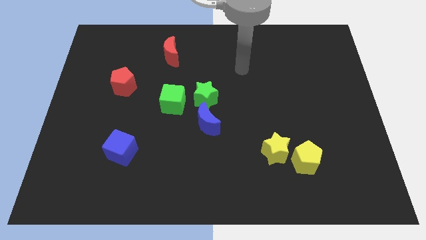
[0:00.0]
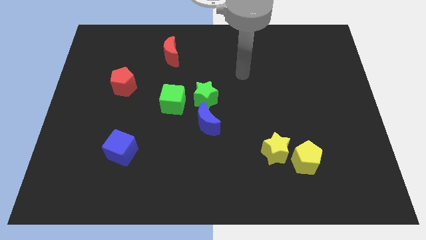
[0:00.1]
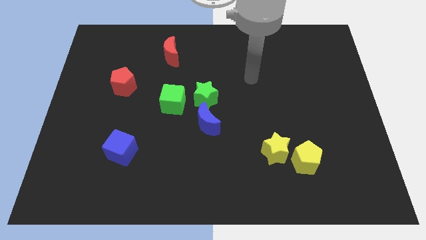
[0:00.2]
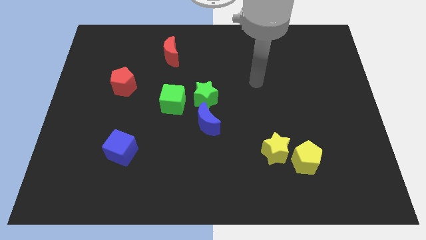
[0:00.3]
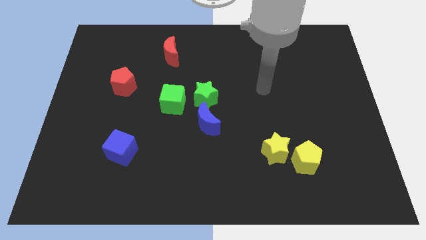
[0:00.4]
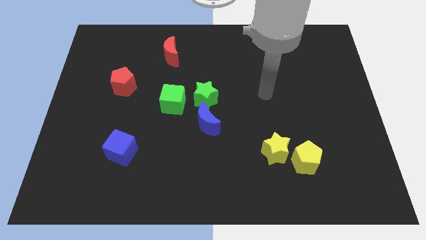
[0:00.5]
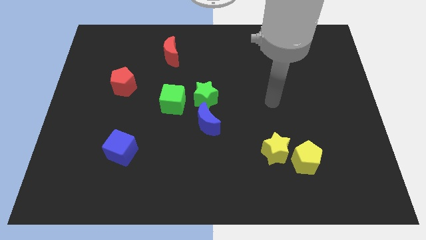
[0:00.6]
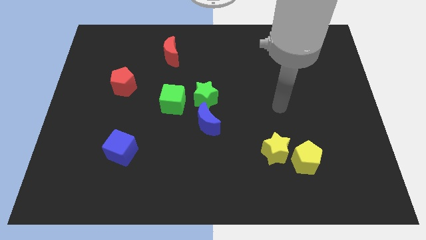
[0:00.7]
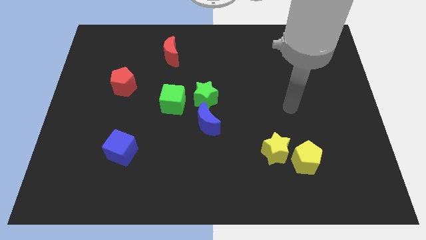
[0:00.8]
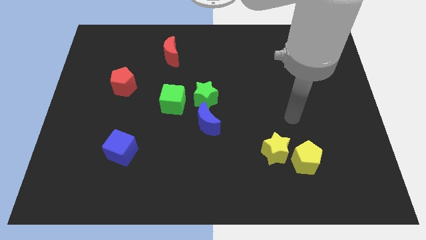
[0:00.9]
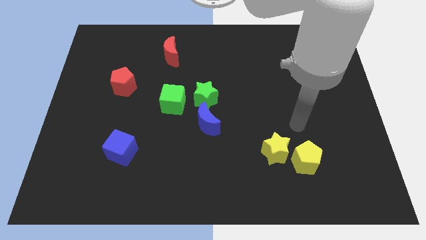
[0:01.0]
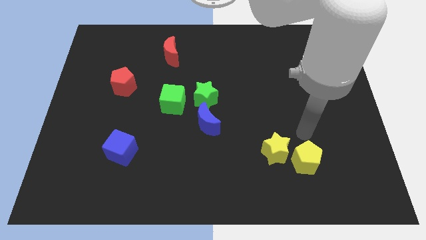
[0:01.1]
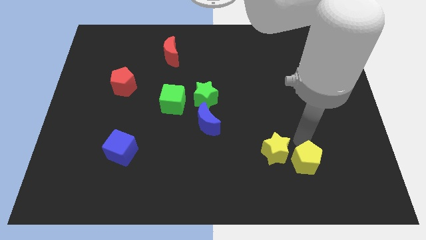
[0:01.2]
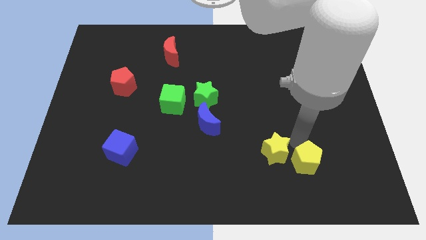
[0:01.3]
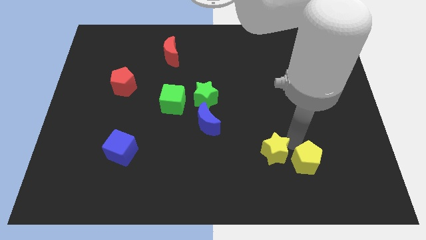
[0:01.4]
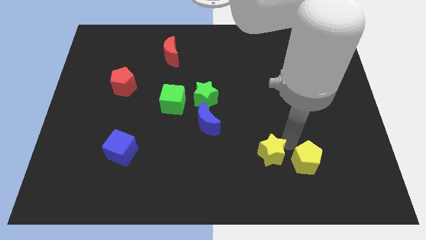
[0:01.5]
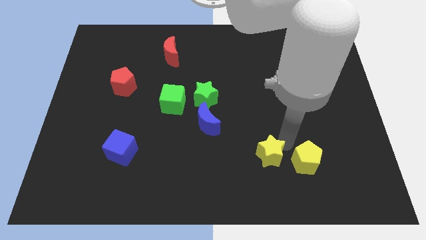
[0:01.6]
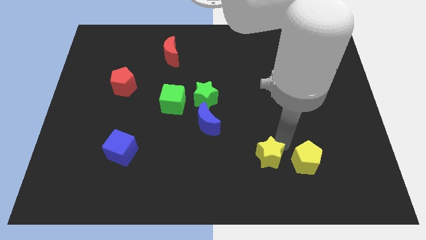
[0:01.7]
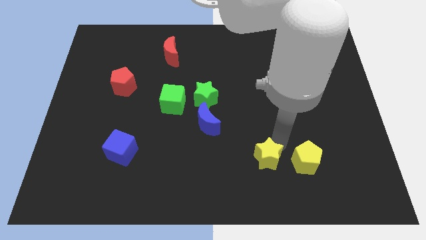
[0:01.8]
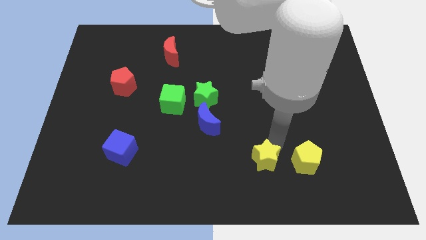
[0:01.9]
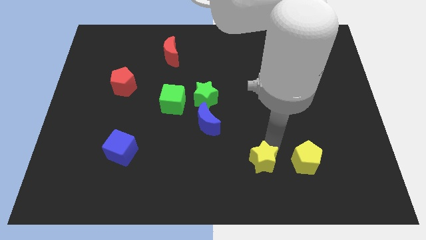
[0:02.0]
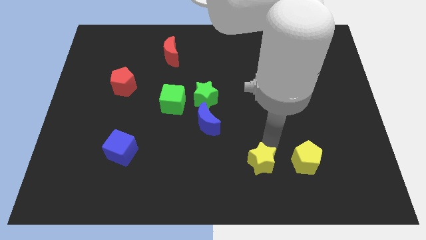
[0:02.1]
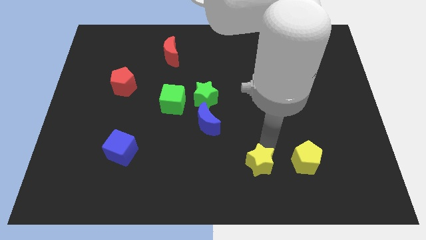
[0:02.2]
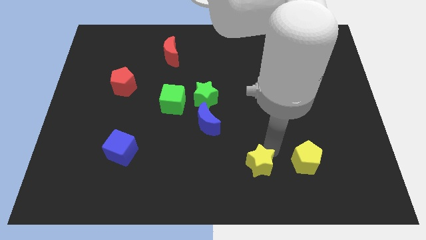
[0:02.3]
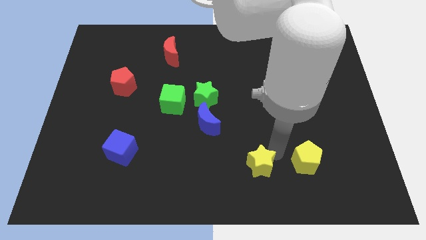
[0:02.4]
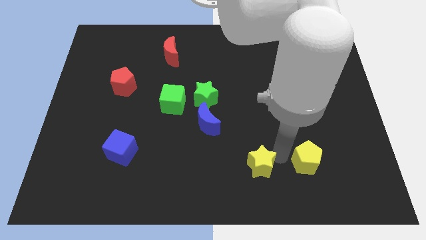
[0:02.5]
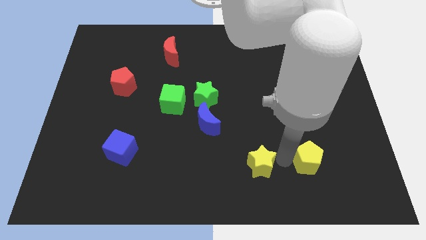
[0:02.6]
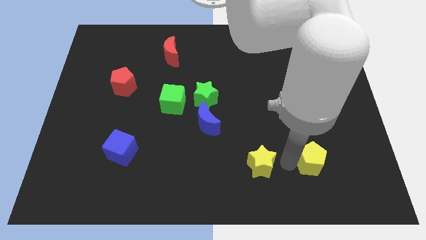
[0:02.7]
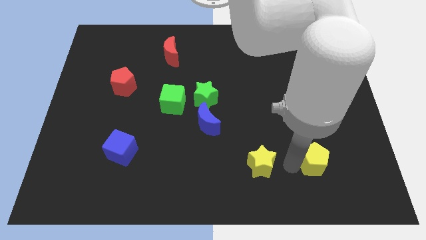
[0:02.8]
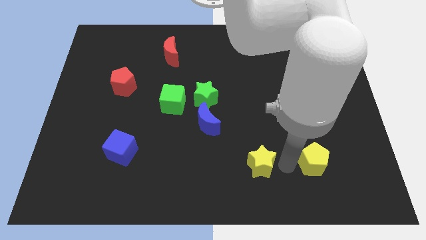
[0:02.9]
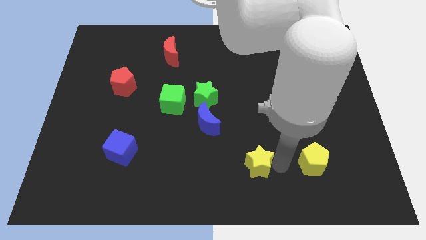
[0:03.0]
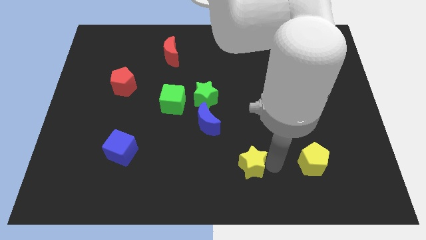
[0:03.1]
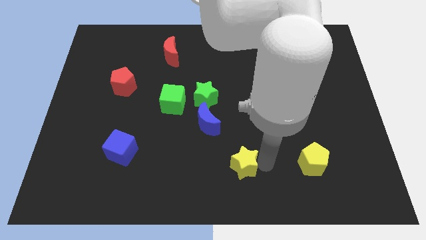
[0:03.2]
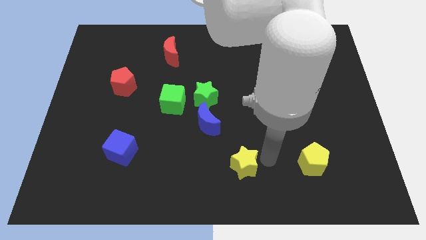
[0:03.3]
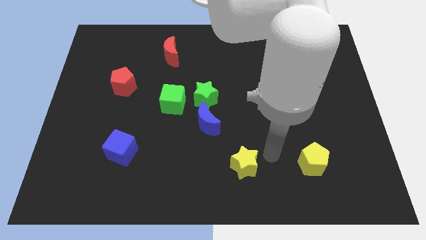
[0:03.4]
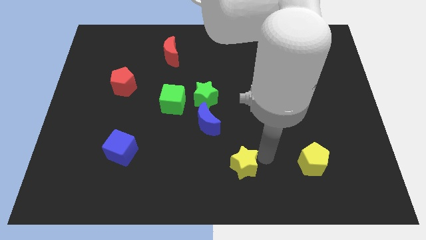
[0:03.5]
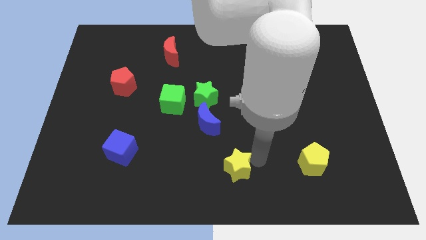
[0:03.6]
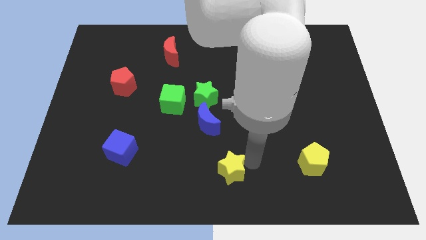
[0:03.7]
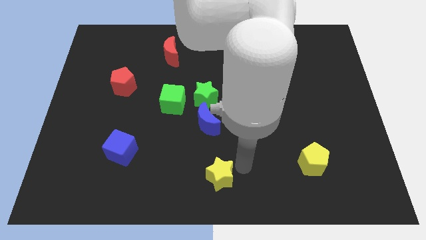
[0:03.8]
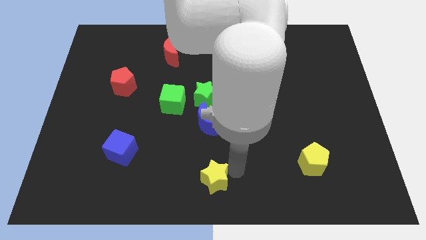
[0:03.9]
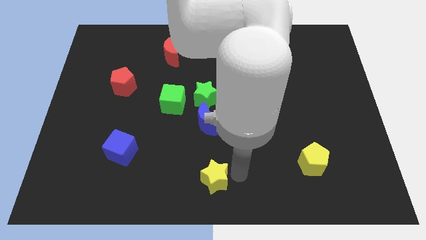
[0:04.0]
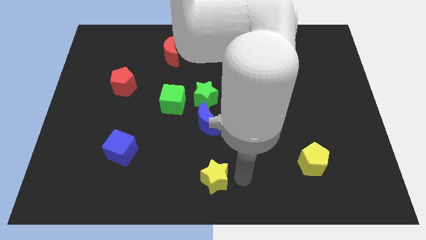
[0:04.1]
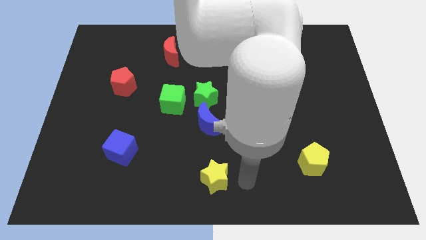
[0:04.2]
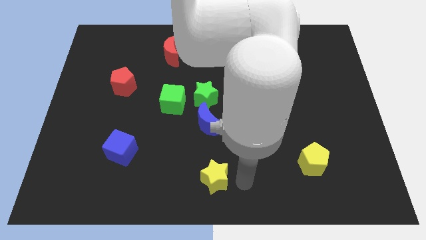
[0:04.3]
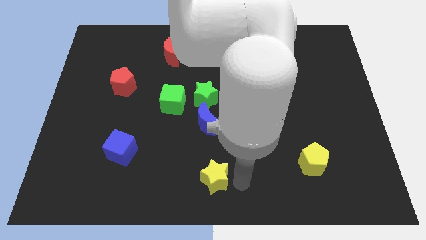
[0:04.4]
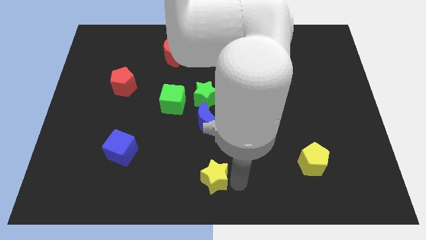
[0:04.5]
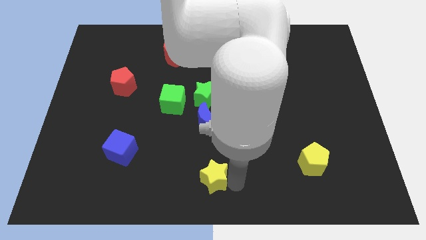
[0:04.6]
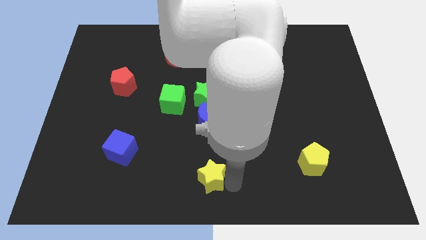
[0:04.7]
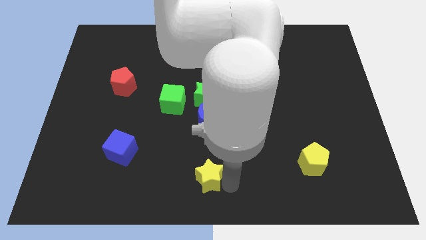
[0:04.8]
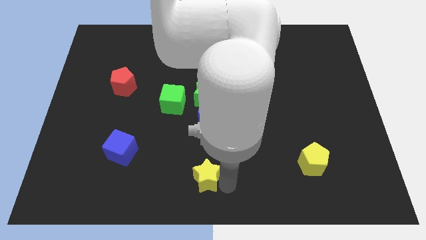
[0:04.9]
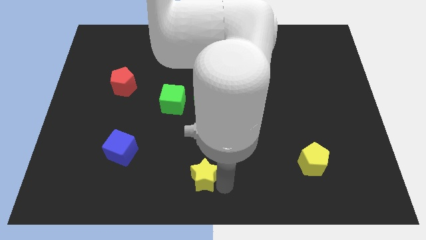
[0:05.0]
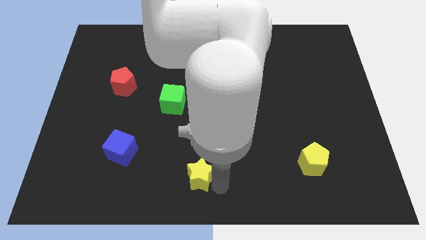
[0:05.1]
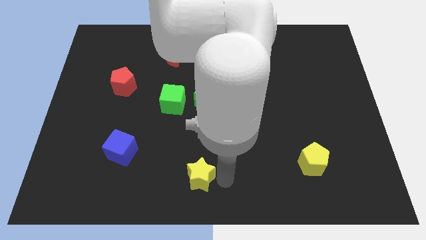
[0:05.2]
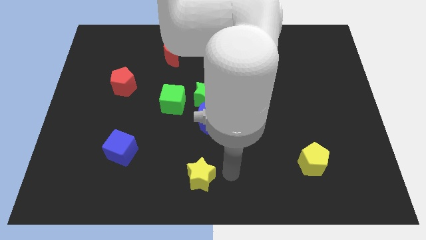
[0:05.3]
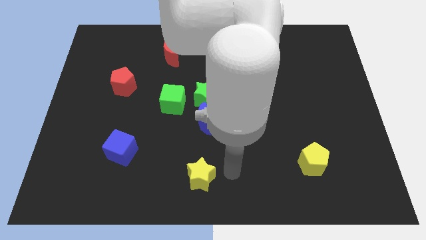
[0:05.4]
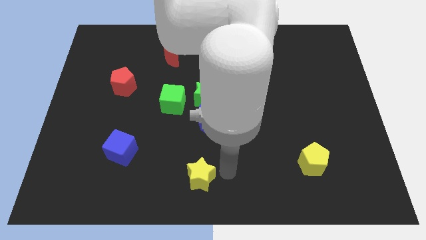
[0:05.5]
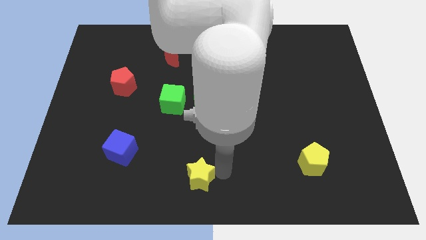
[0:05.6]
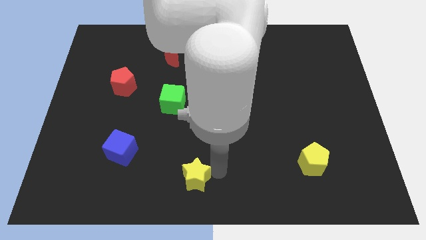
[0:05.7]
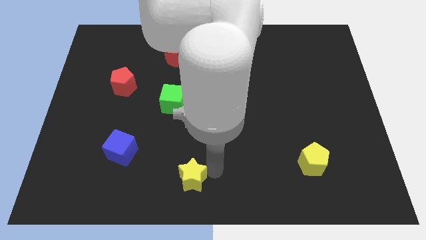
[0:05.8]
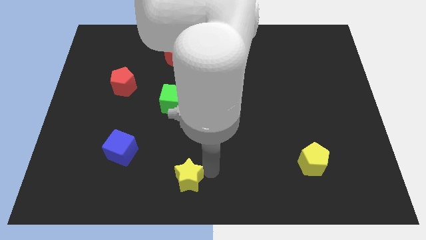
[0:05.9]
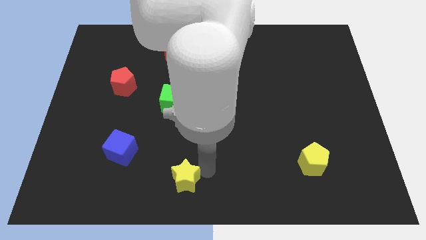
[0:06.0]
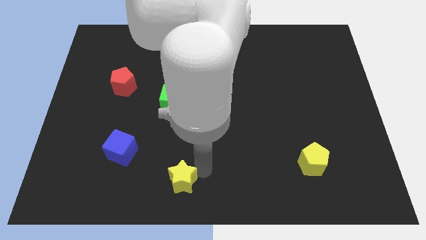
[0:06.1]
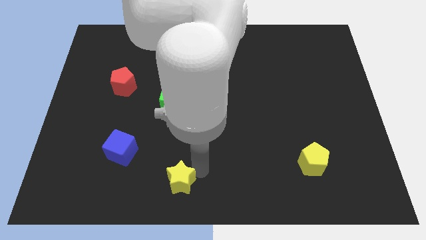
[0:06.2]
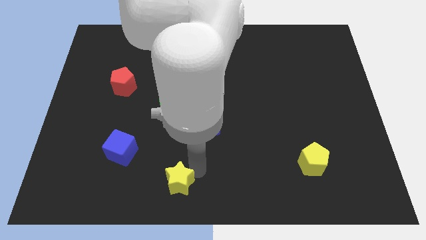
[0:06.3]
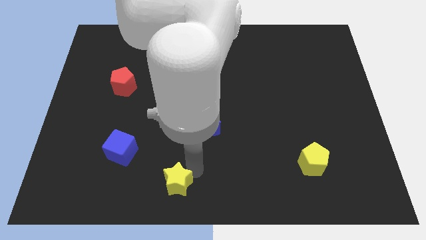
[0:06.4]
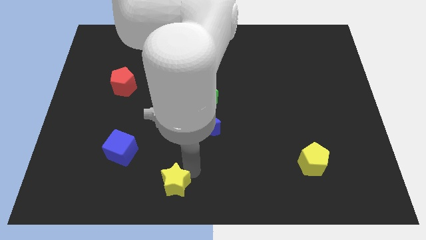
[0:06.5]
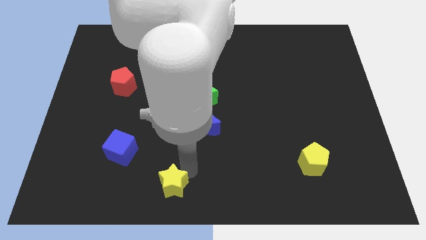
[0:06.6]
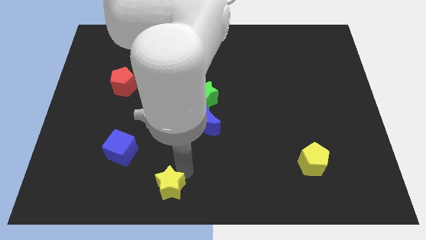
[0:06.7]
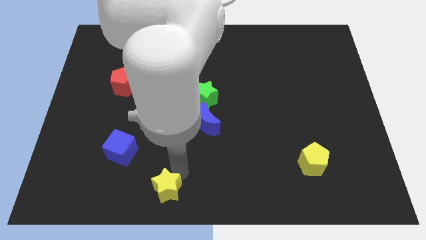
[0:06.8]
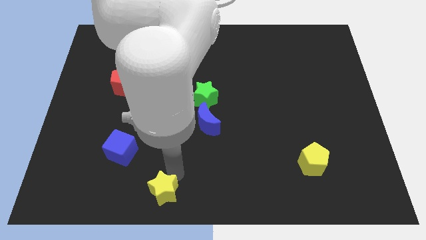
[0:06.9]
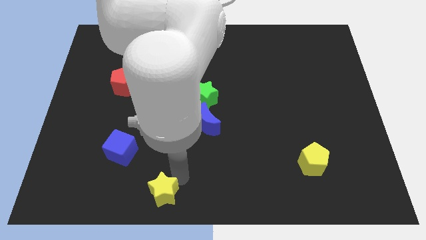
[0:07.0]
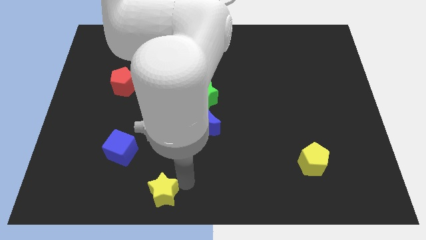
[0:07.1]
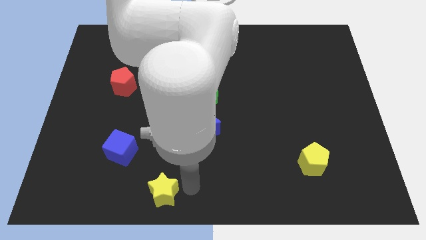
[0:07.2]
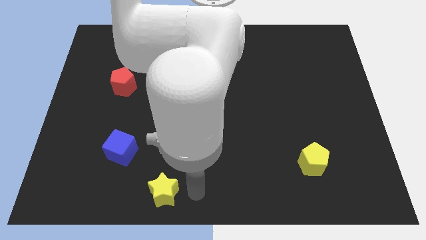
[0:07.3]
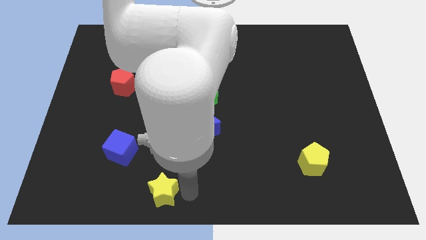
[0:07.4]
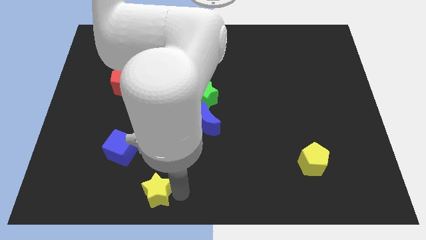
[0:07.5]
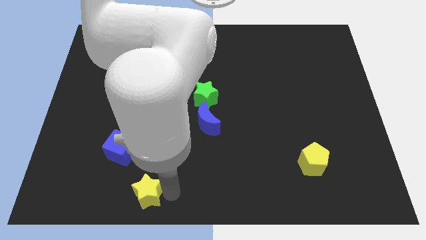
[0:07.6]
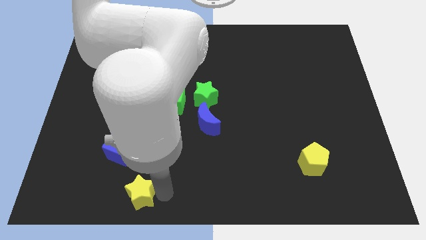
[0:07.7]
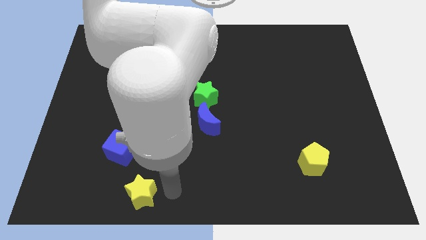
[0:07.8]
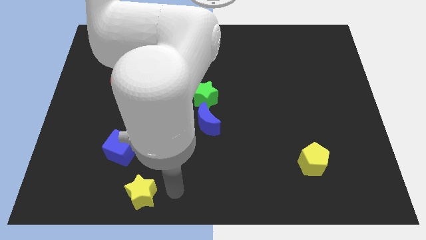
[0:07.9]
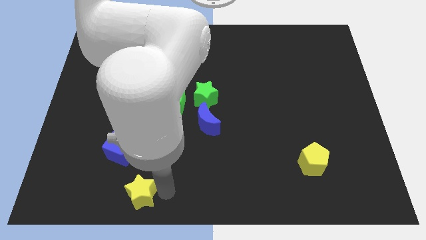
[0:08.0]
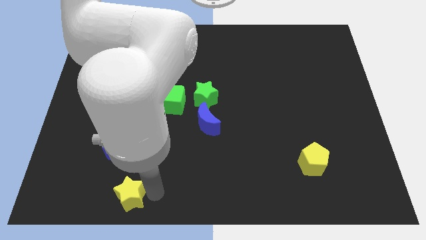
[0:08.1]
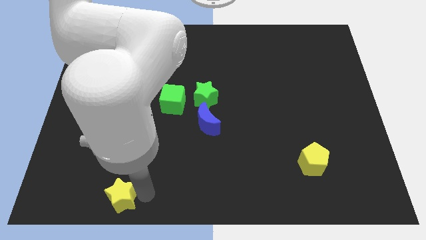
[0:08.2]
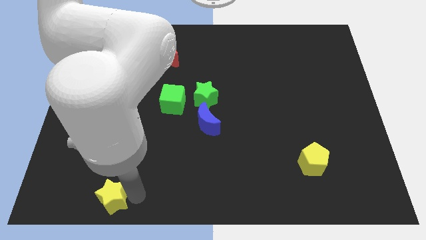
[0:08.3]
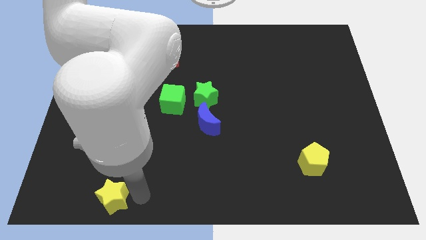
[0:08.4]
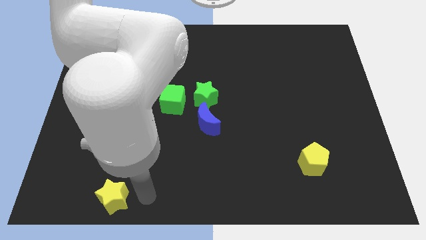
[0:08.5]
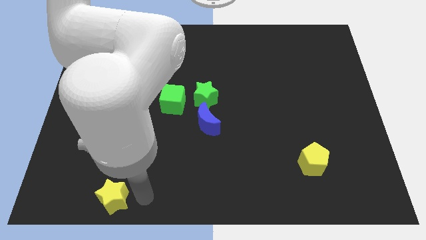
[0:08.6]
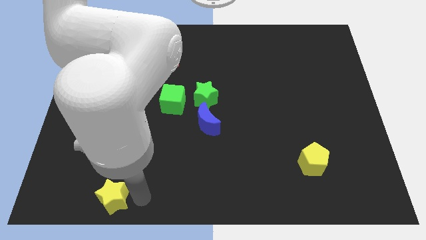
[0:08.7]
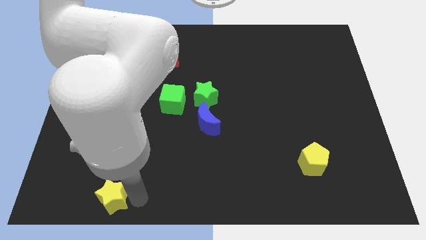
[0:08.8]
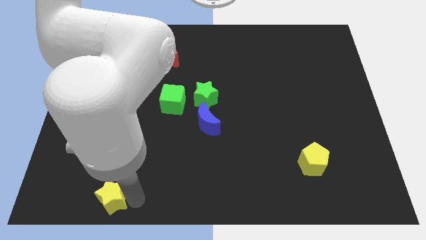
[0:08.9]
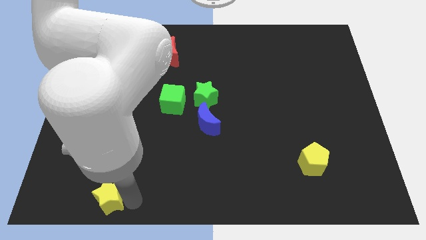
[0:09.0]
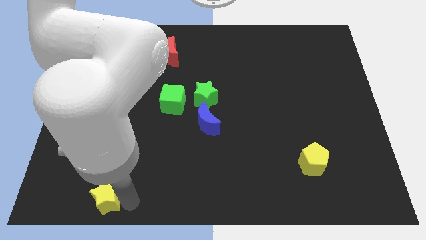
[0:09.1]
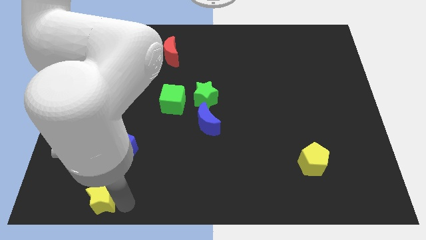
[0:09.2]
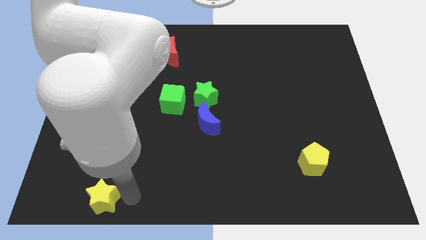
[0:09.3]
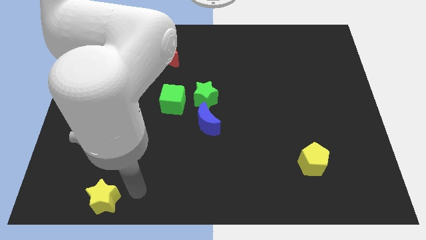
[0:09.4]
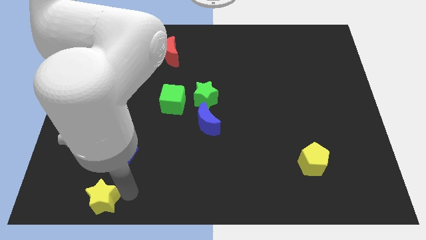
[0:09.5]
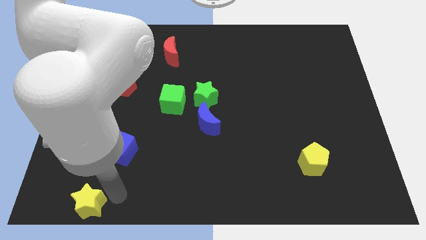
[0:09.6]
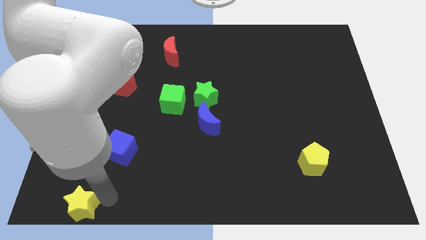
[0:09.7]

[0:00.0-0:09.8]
move the yellow star to the bottom left corner
